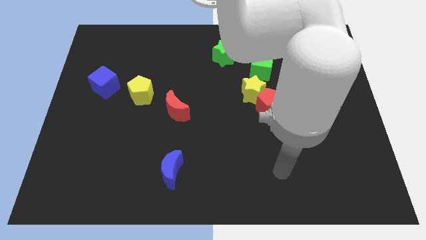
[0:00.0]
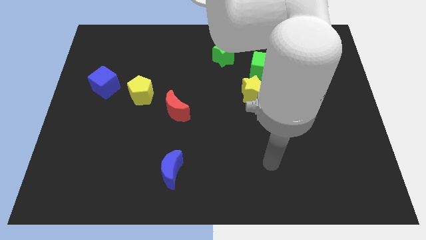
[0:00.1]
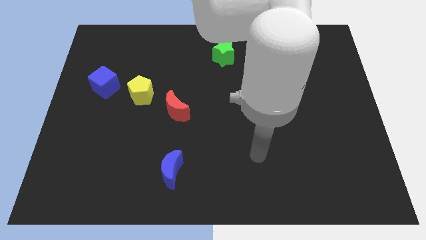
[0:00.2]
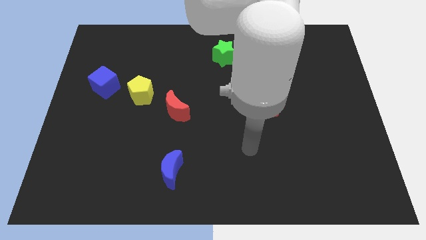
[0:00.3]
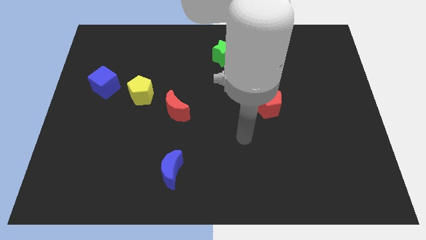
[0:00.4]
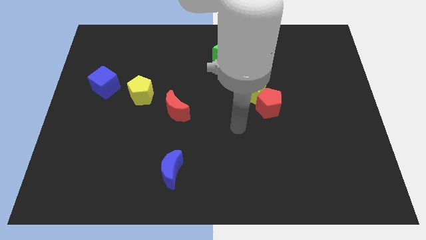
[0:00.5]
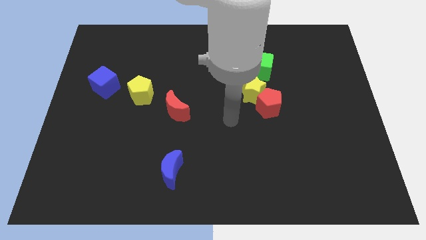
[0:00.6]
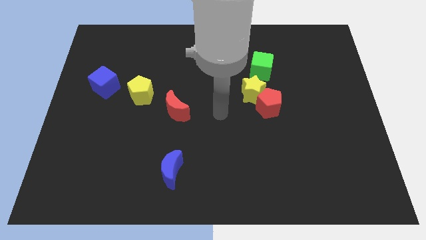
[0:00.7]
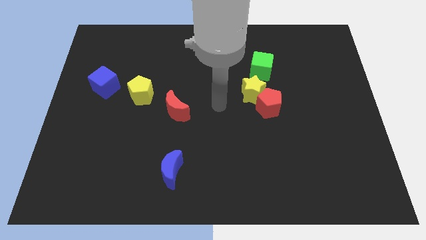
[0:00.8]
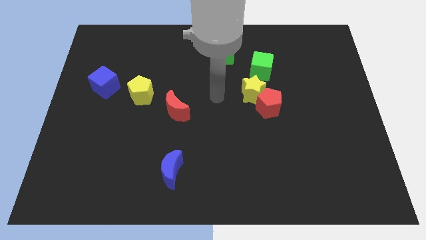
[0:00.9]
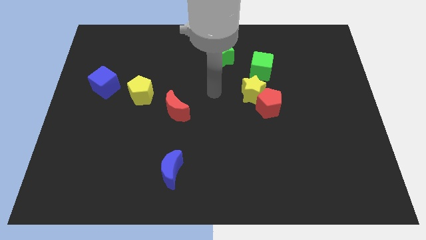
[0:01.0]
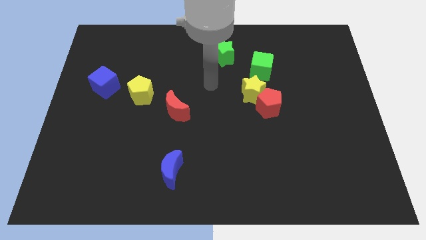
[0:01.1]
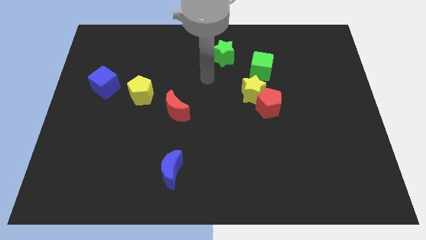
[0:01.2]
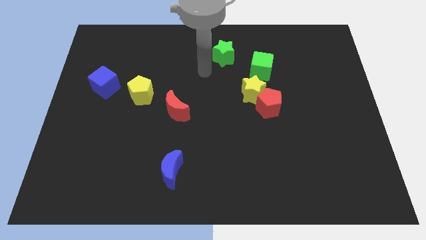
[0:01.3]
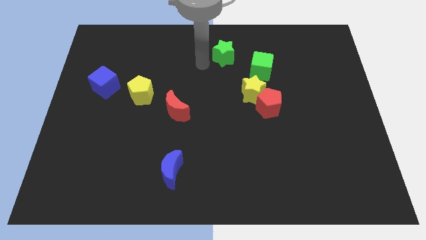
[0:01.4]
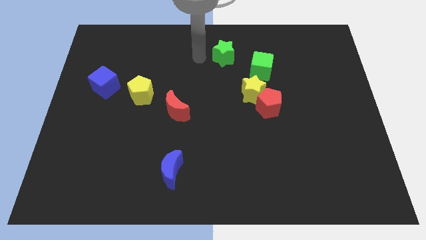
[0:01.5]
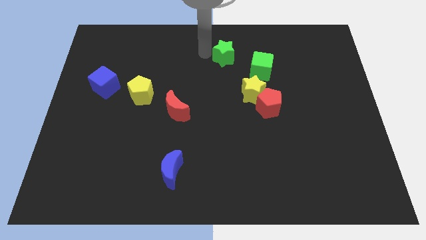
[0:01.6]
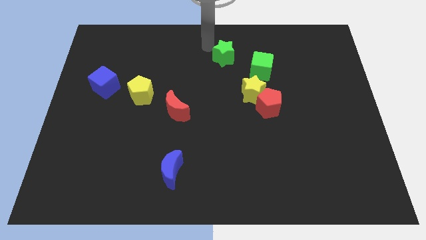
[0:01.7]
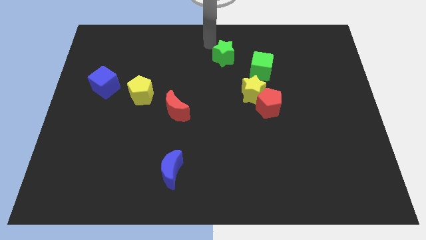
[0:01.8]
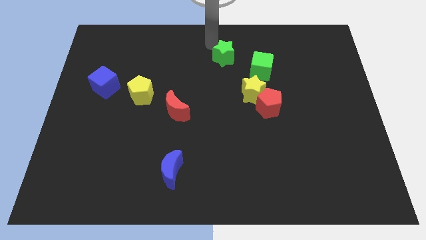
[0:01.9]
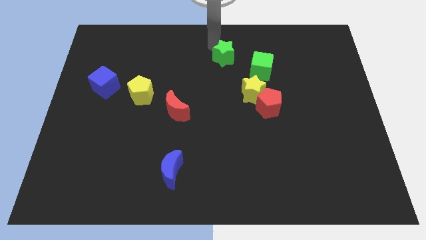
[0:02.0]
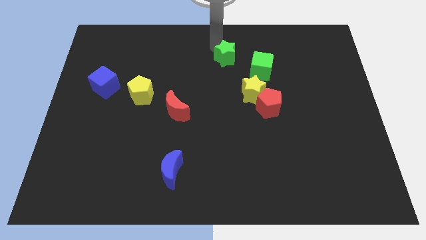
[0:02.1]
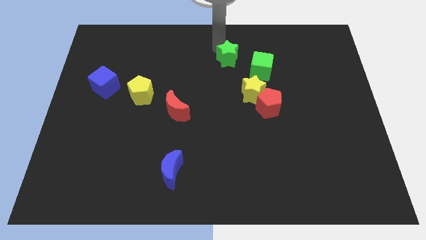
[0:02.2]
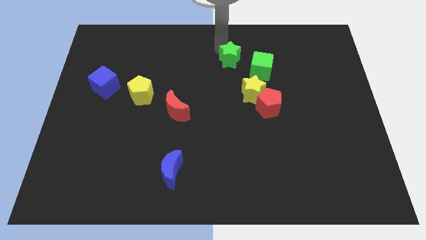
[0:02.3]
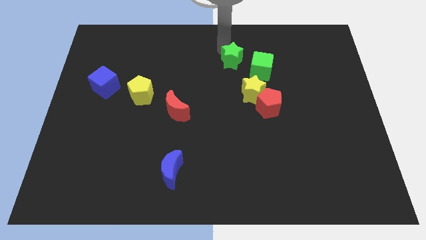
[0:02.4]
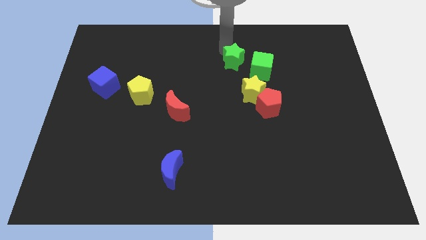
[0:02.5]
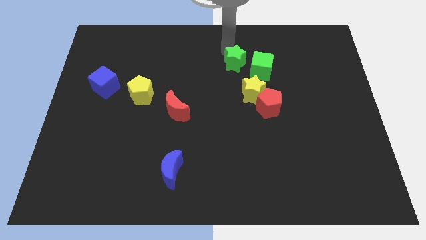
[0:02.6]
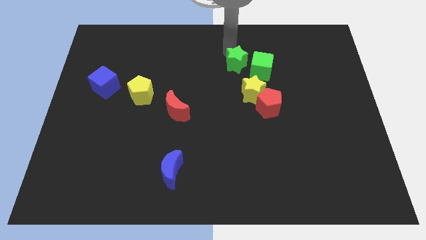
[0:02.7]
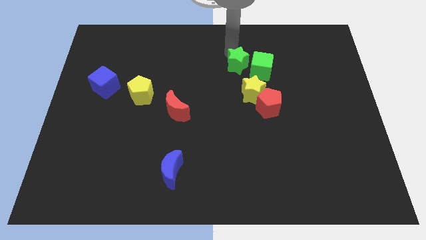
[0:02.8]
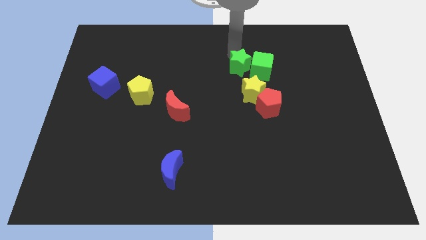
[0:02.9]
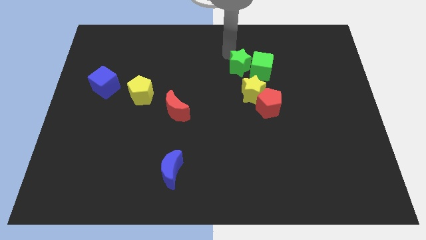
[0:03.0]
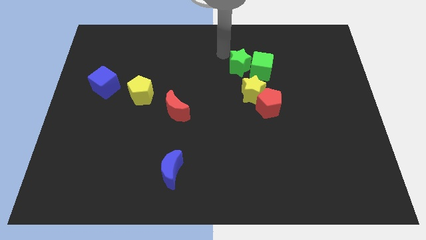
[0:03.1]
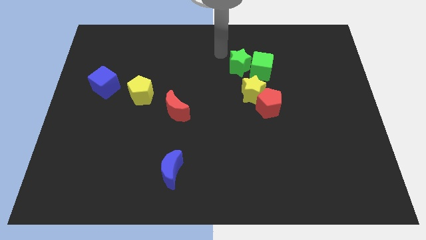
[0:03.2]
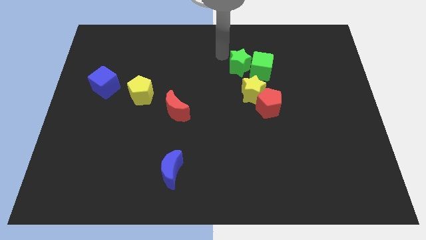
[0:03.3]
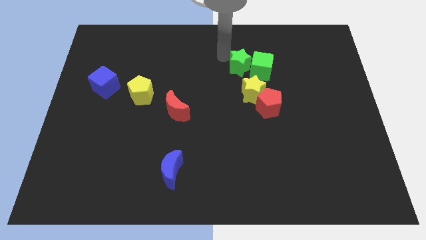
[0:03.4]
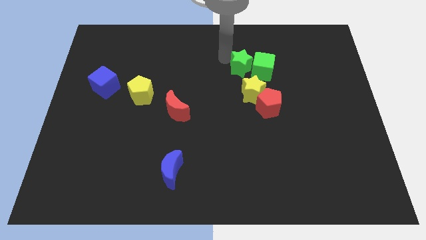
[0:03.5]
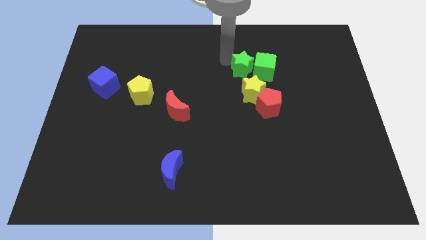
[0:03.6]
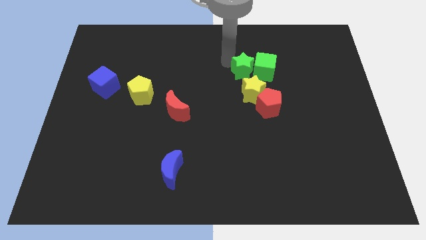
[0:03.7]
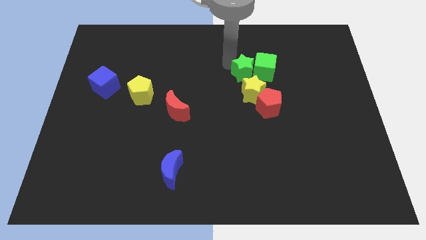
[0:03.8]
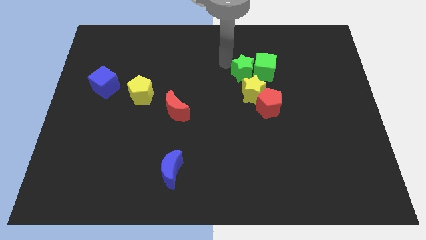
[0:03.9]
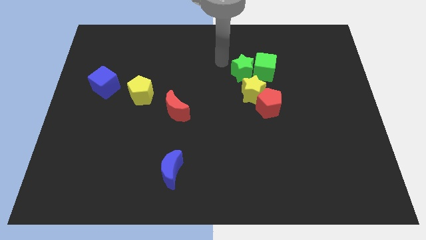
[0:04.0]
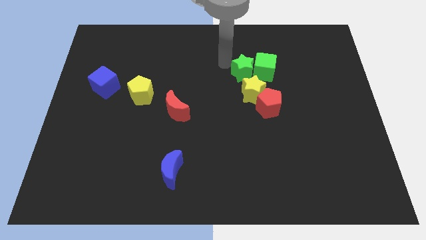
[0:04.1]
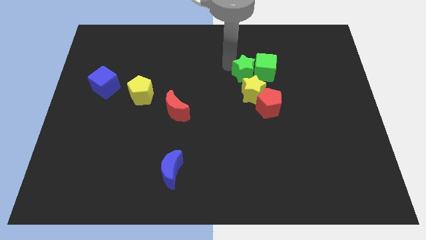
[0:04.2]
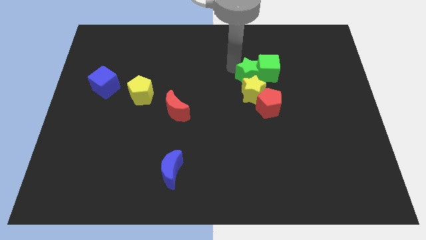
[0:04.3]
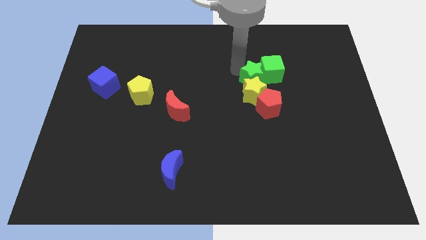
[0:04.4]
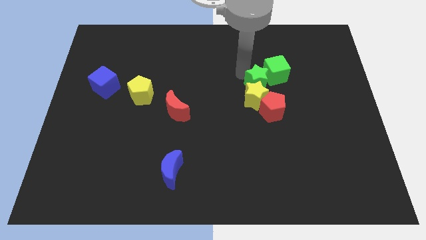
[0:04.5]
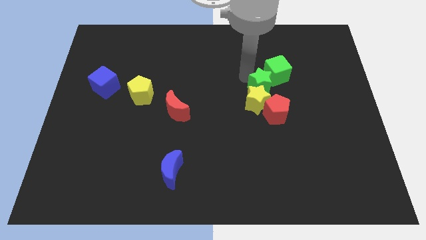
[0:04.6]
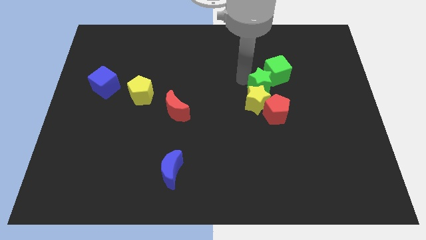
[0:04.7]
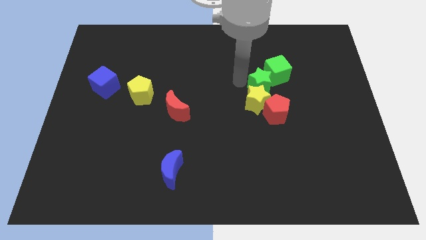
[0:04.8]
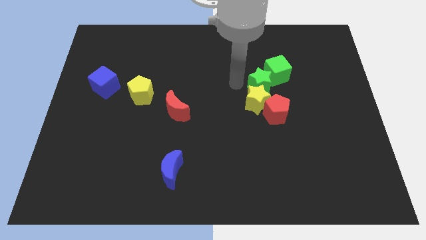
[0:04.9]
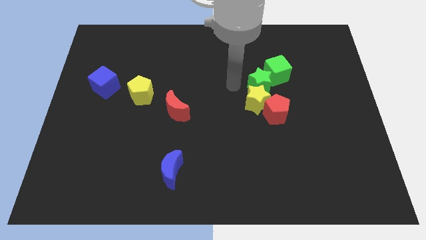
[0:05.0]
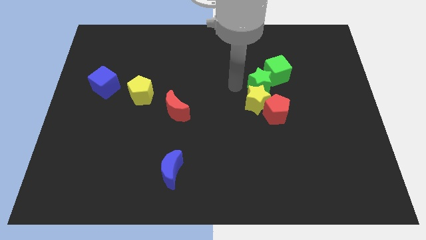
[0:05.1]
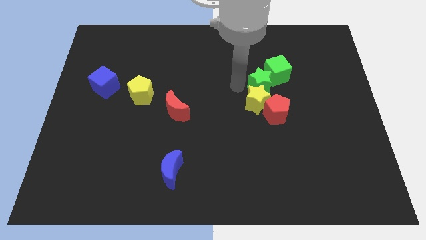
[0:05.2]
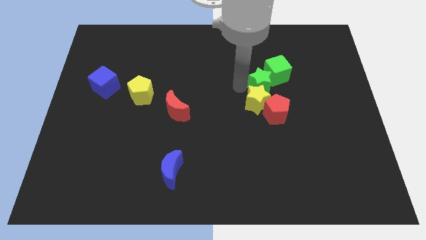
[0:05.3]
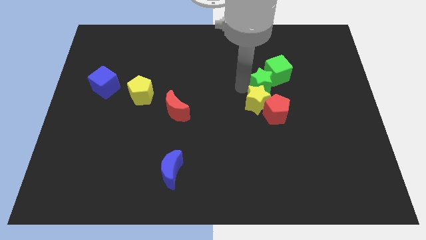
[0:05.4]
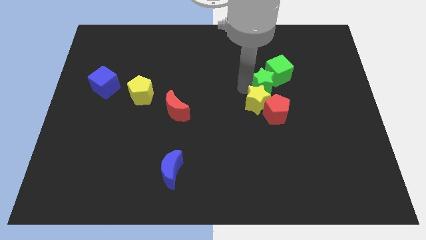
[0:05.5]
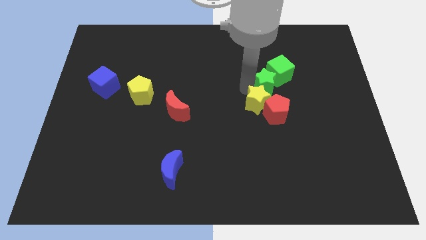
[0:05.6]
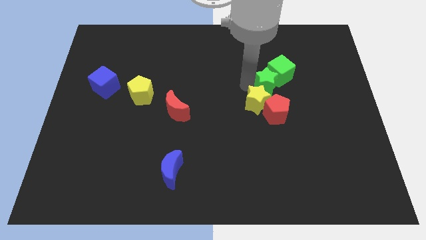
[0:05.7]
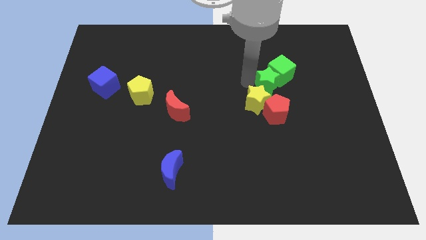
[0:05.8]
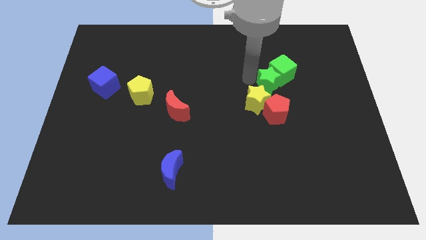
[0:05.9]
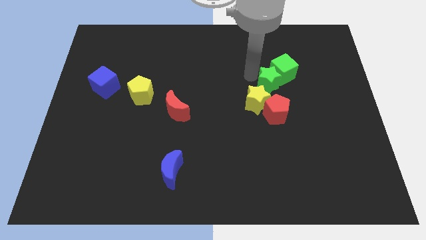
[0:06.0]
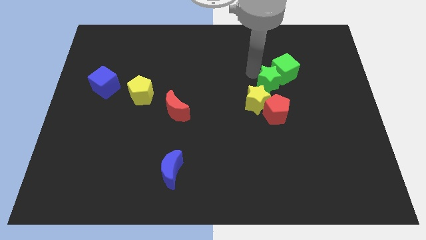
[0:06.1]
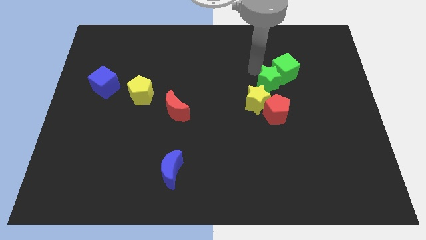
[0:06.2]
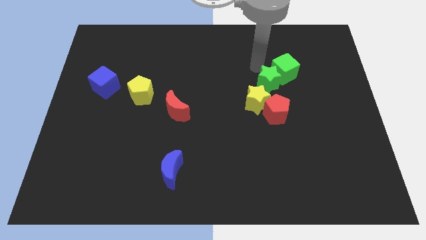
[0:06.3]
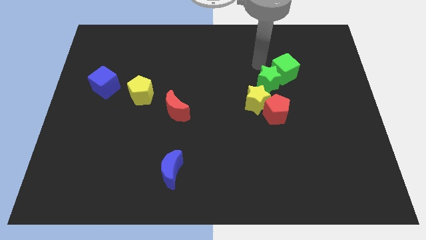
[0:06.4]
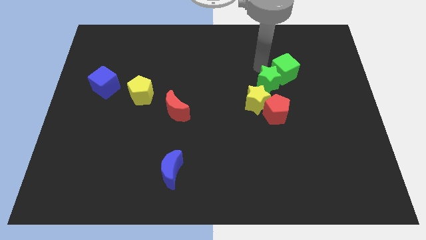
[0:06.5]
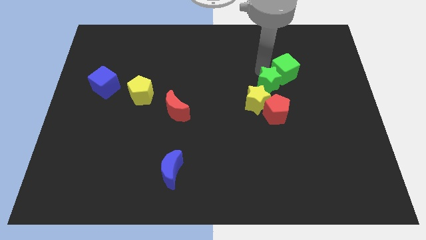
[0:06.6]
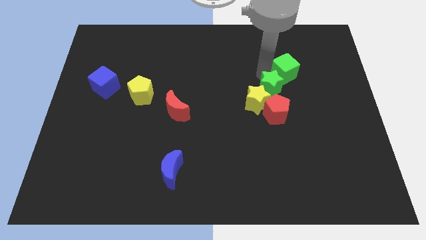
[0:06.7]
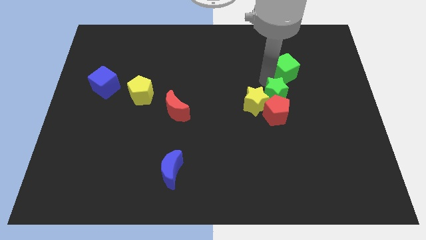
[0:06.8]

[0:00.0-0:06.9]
put the green star towards the red pentagon
